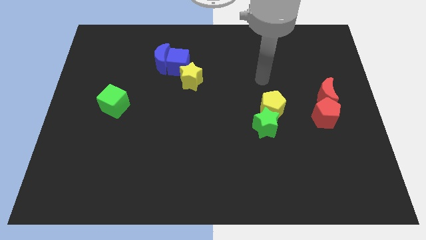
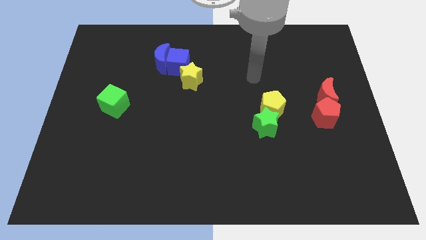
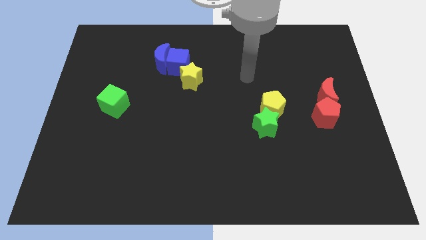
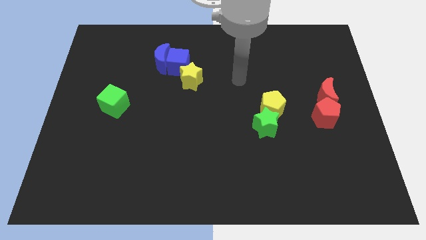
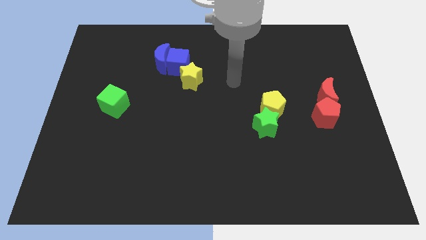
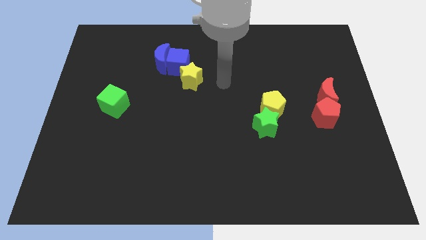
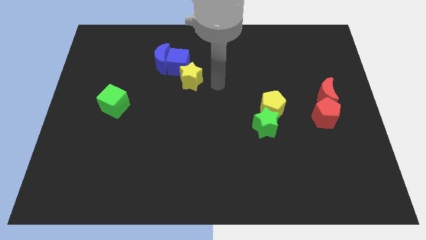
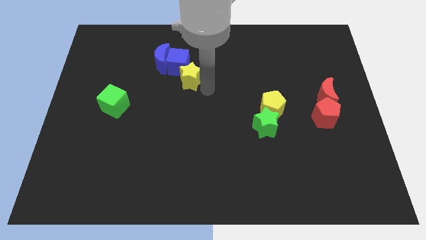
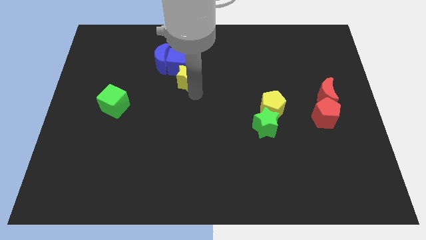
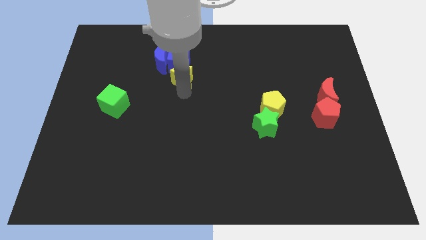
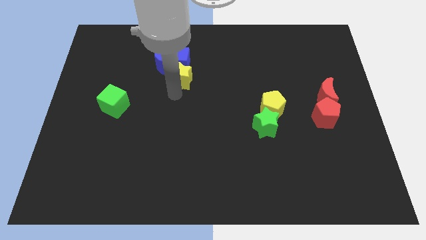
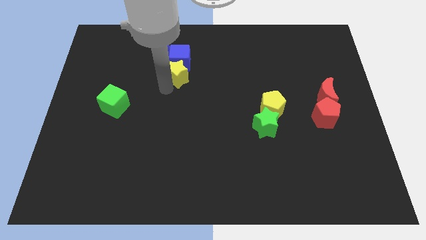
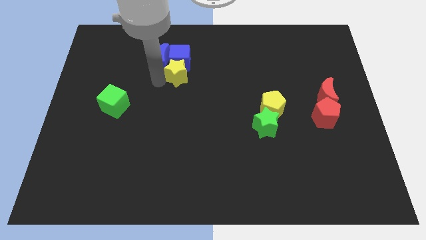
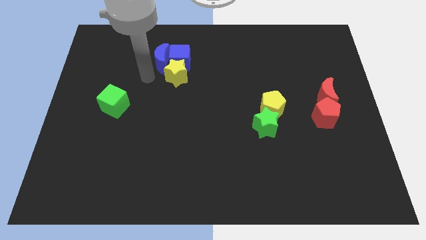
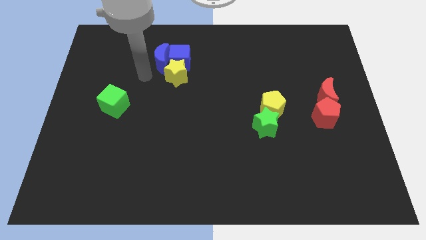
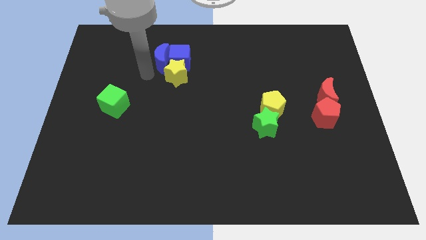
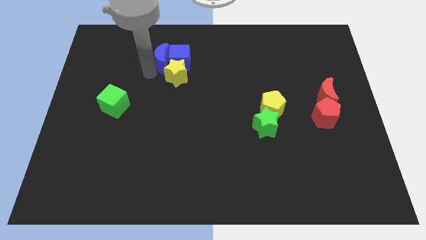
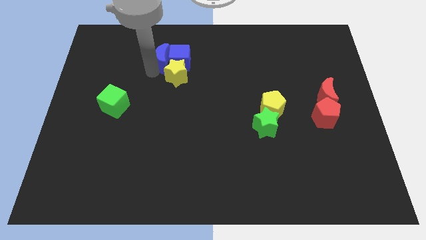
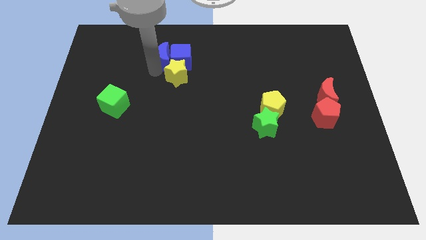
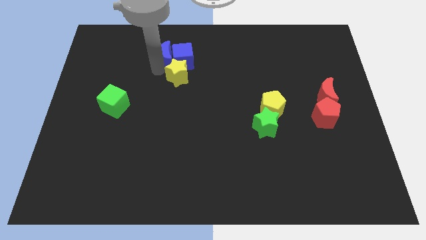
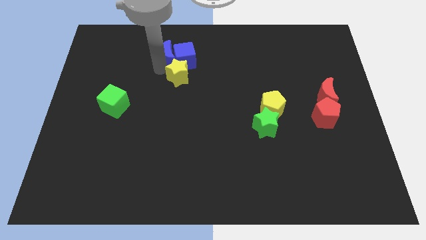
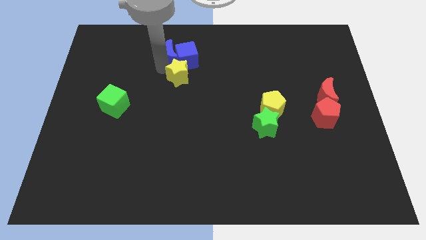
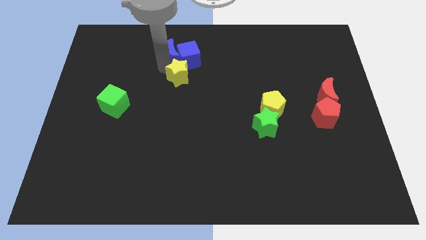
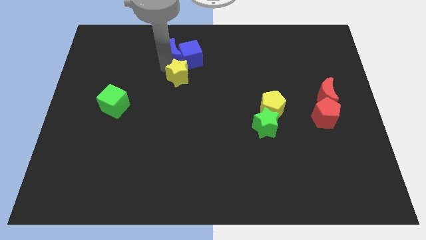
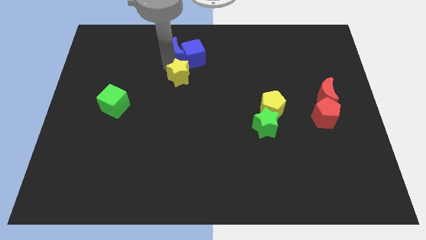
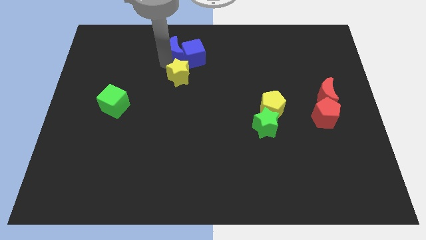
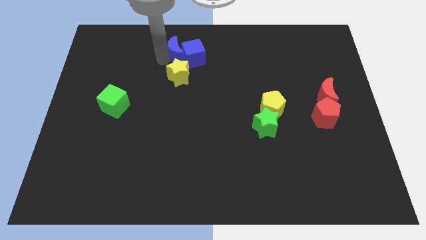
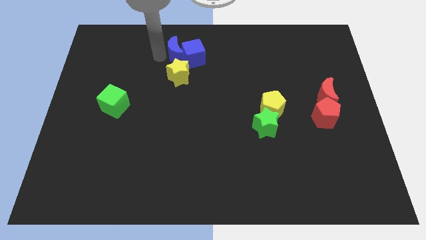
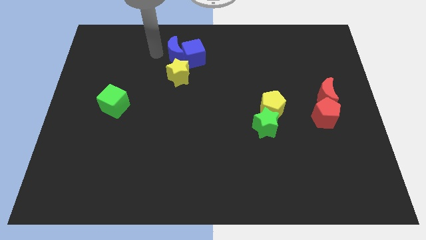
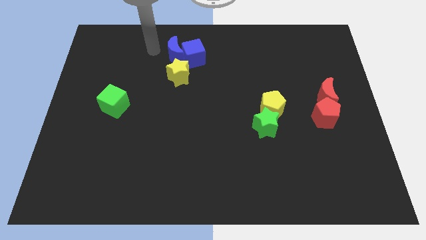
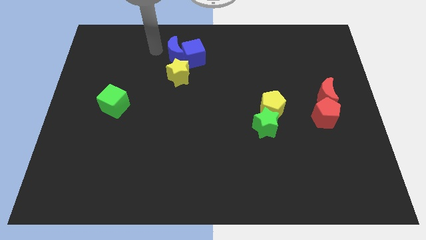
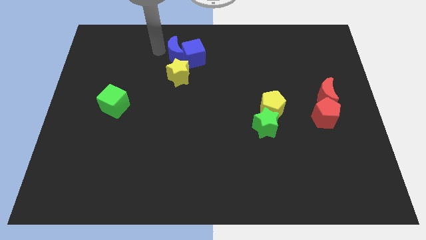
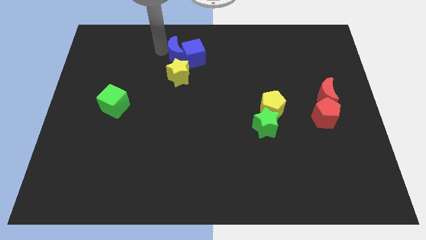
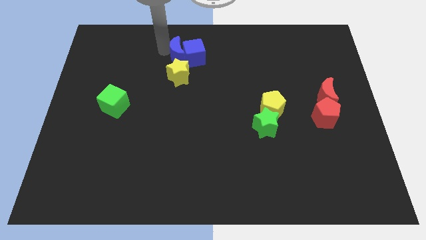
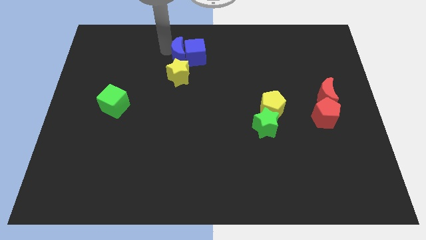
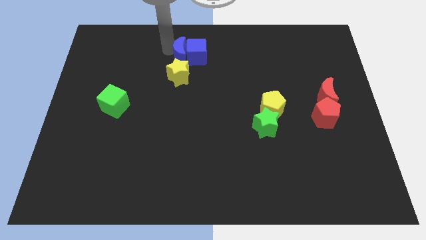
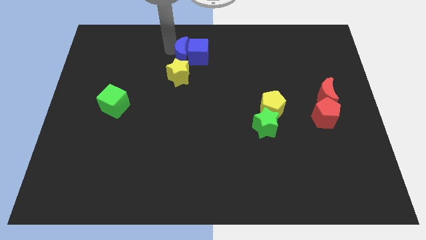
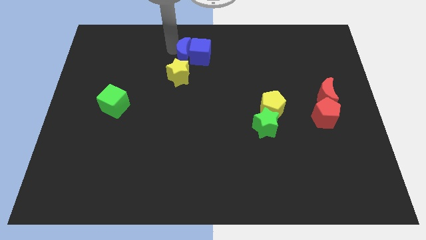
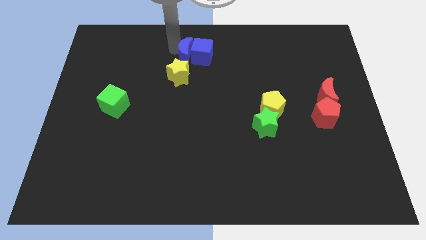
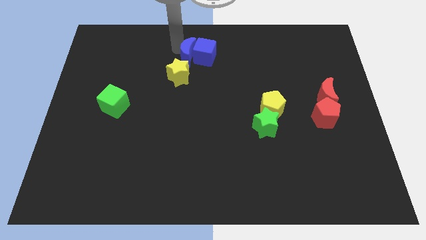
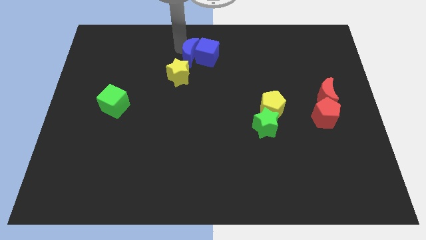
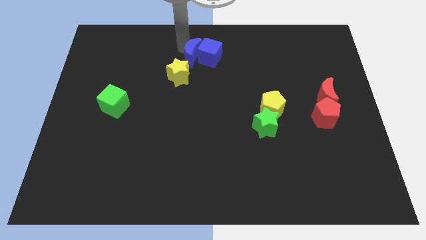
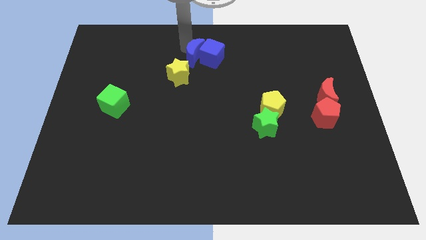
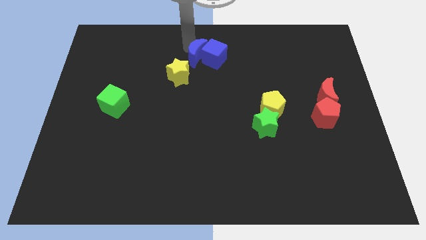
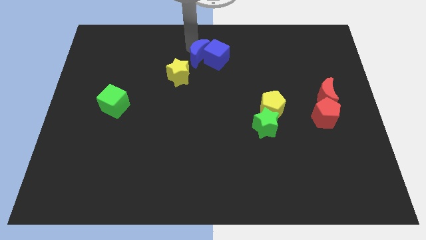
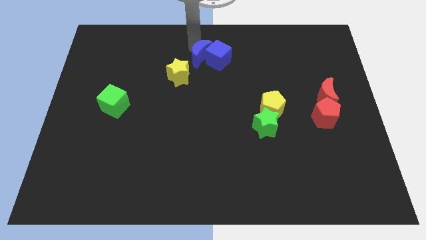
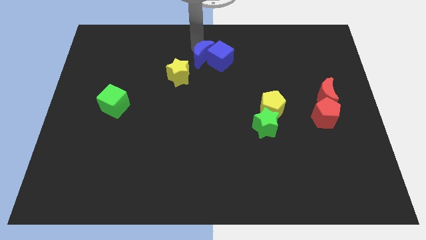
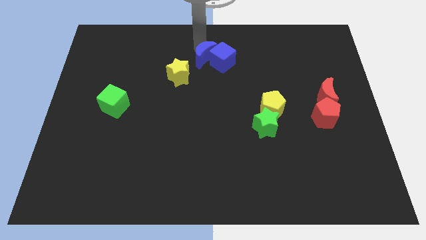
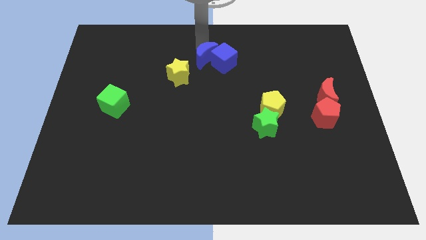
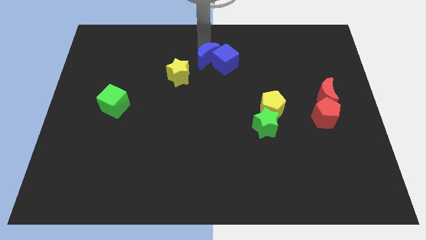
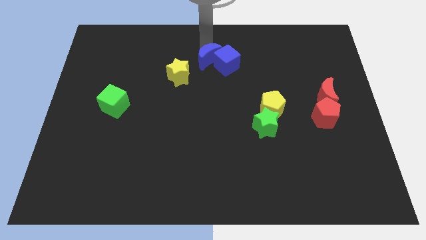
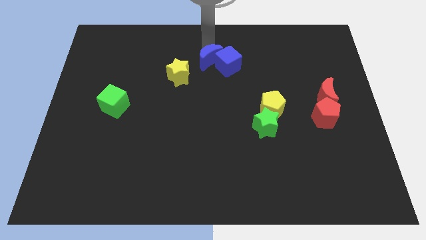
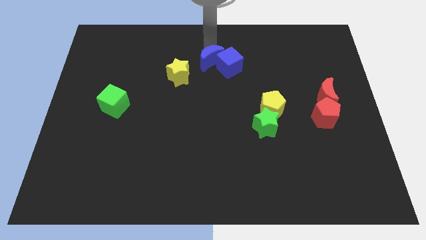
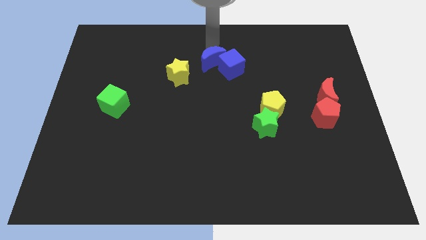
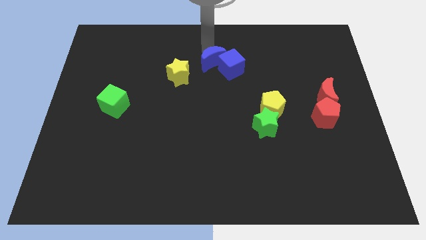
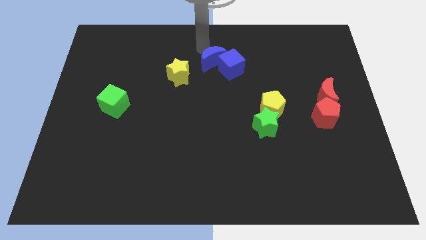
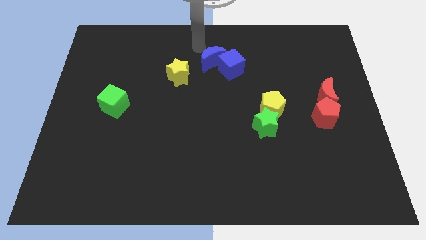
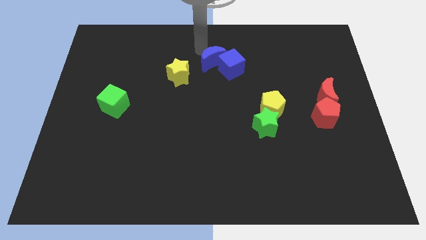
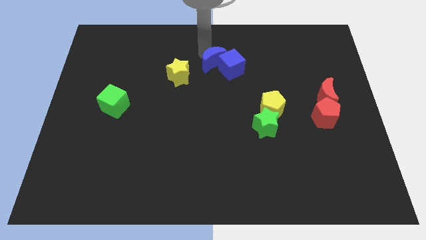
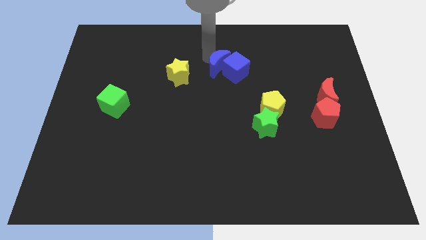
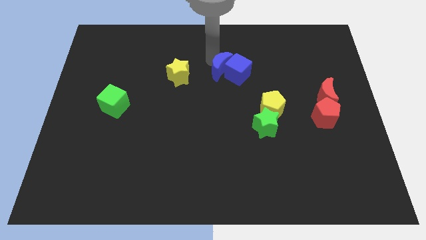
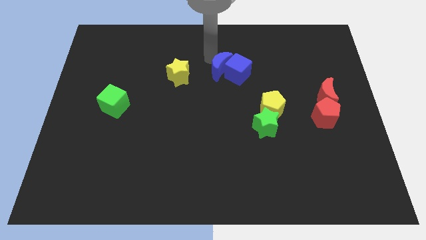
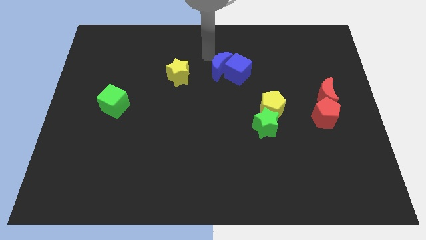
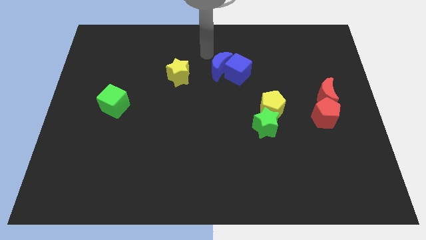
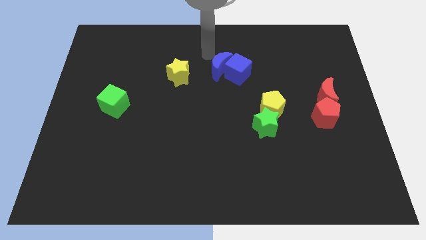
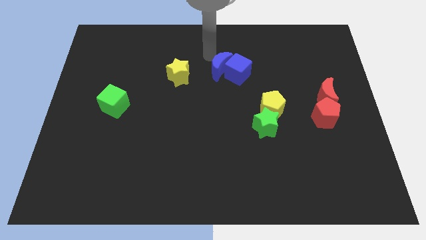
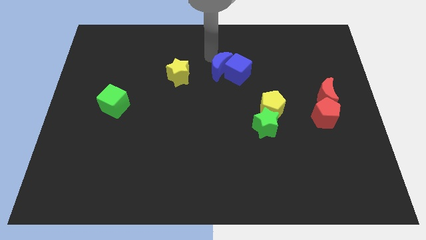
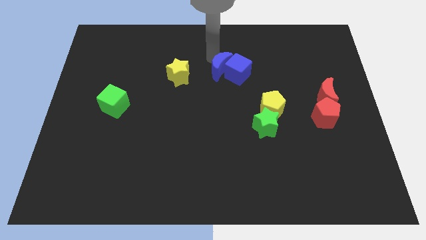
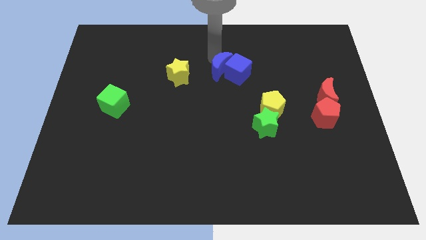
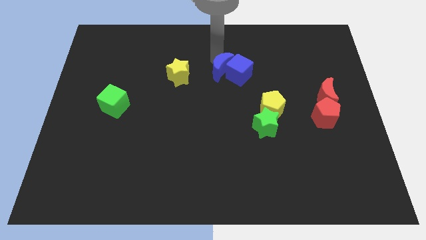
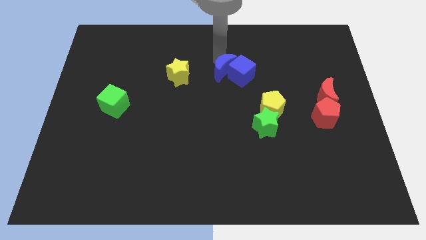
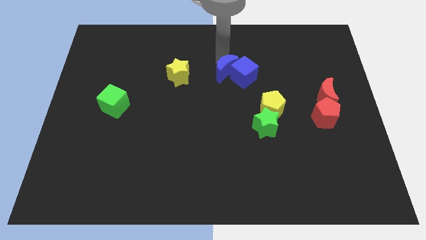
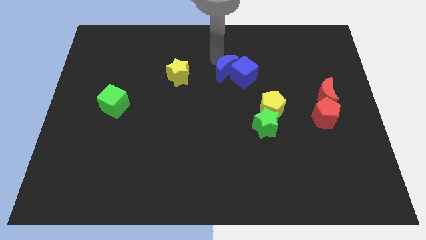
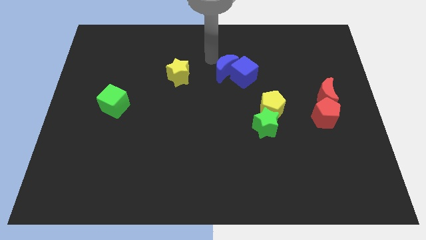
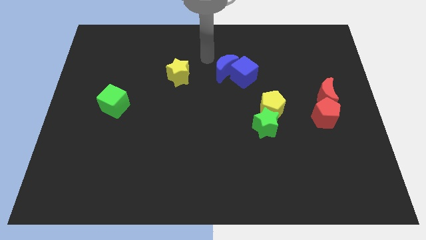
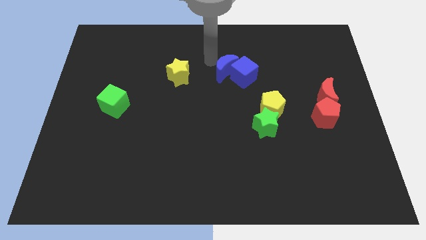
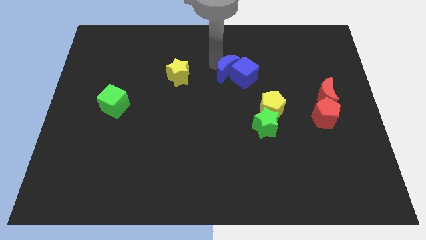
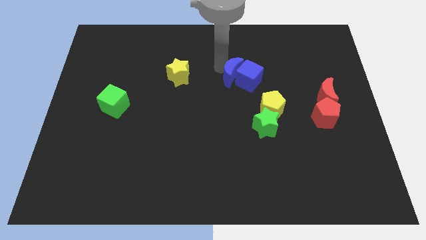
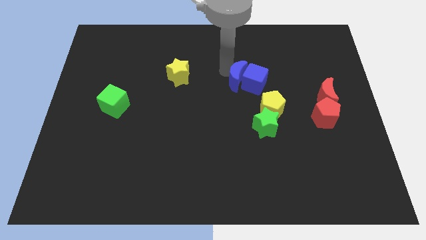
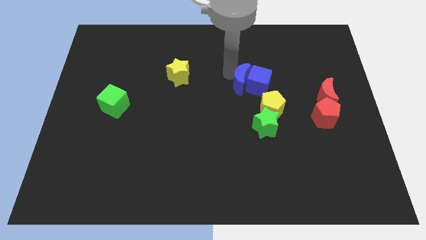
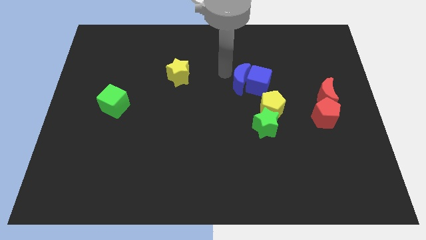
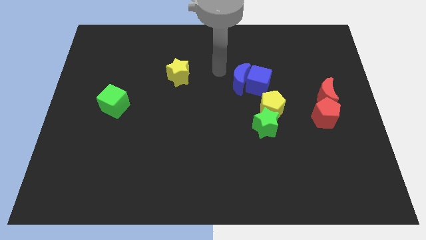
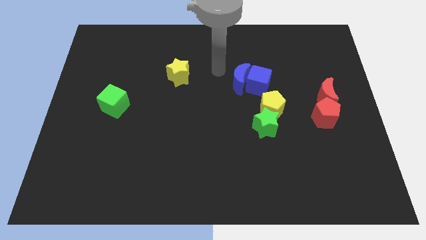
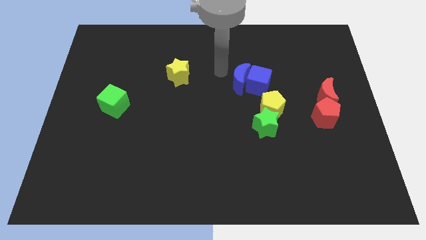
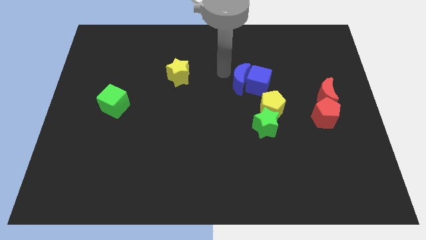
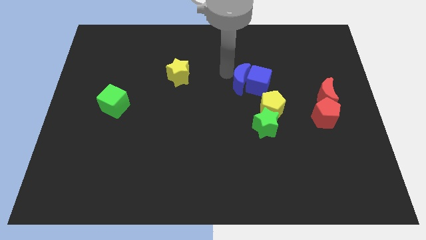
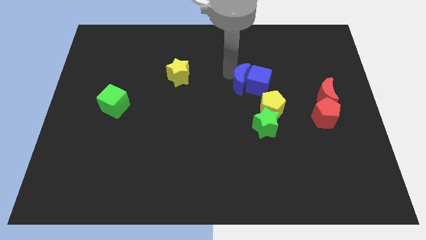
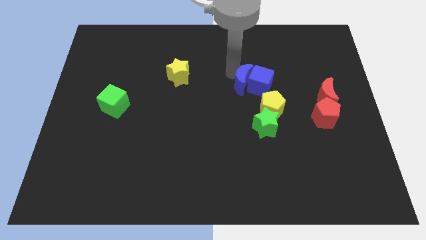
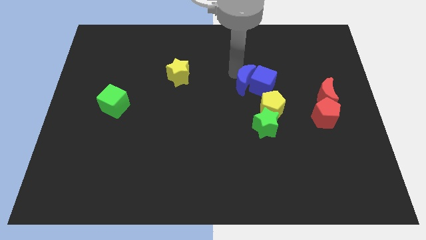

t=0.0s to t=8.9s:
move the blue moon to the top side of the green star
